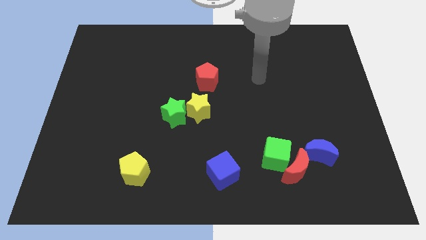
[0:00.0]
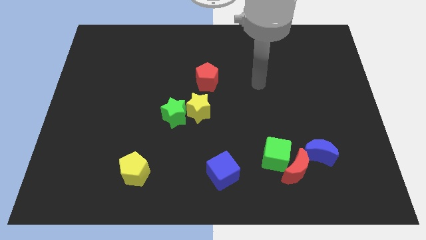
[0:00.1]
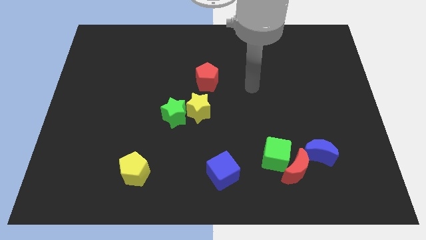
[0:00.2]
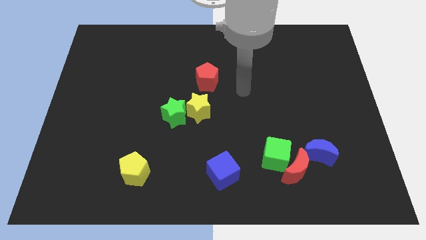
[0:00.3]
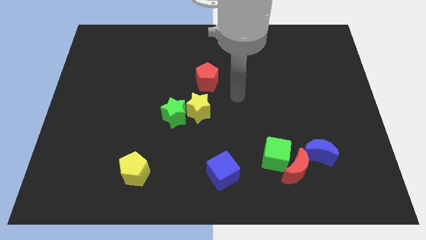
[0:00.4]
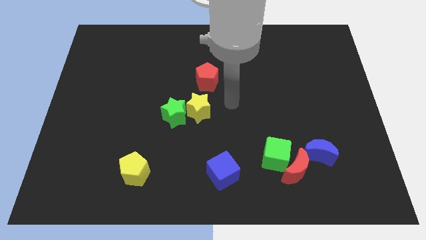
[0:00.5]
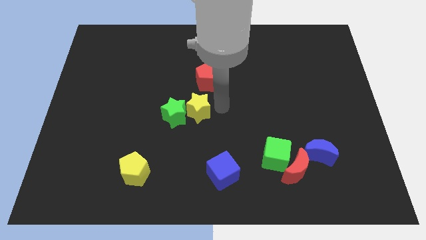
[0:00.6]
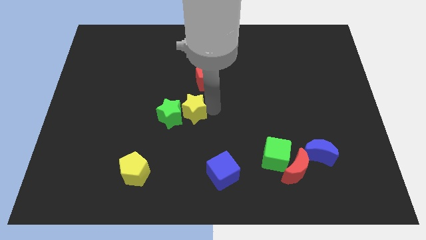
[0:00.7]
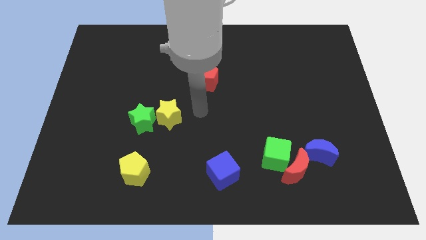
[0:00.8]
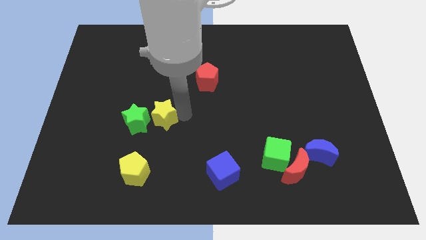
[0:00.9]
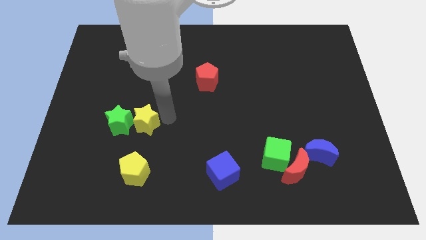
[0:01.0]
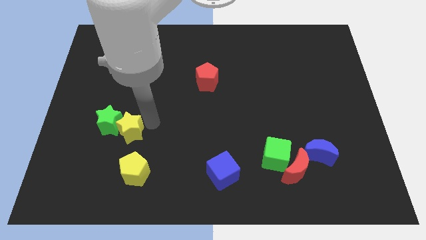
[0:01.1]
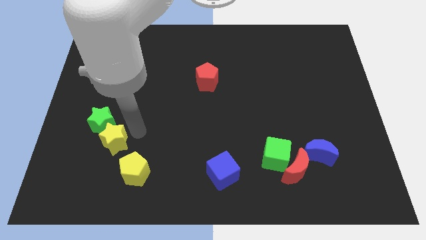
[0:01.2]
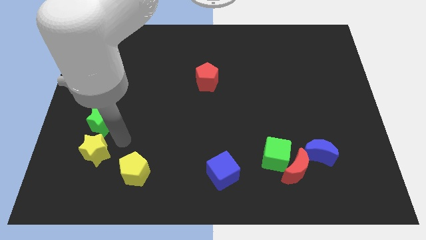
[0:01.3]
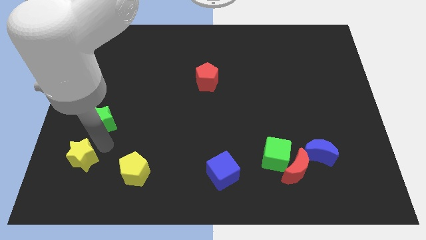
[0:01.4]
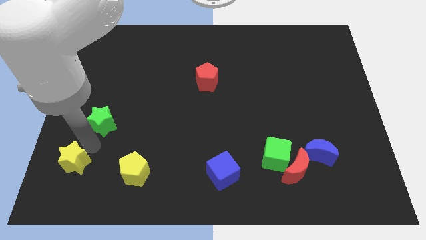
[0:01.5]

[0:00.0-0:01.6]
pull the green star apart from the yellow star

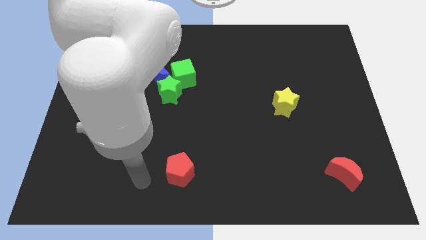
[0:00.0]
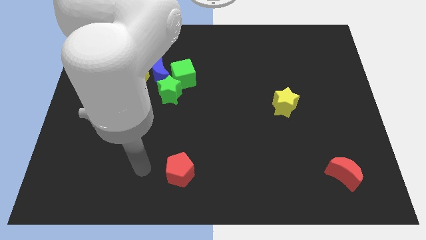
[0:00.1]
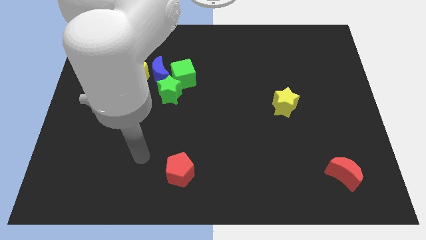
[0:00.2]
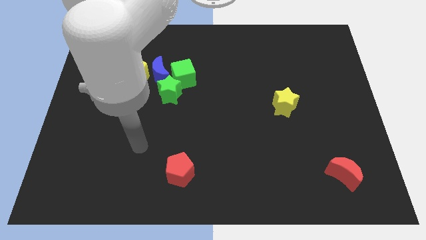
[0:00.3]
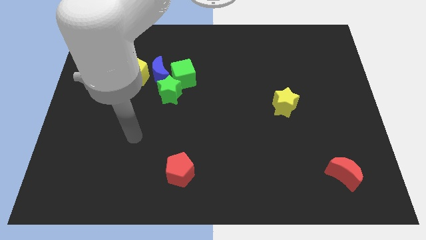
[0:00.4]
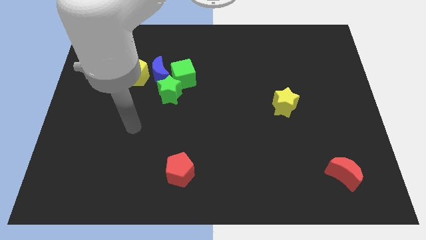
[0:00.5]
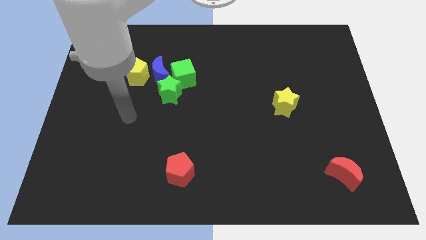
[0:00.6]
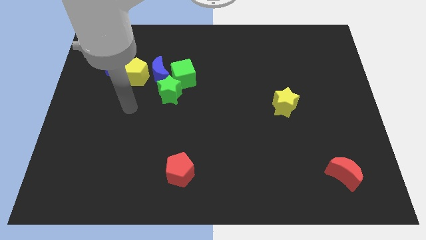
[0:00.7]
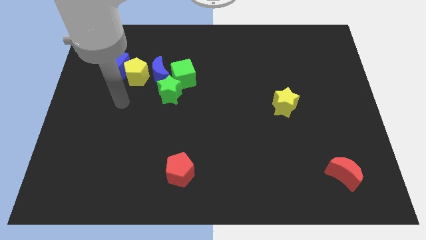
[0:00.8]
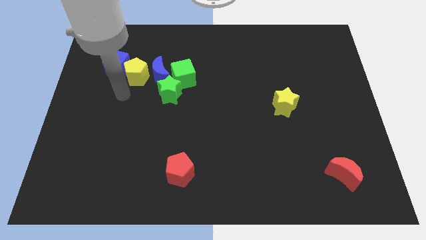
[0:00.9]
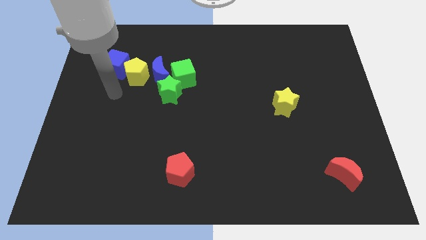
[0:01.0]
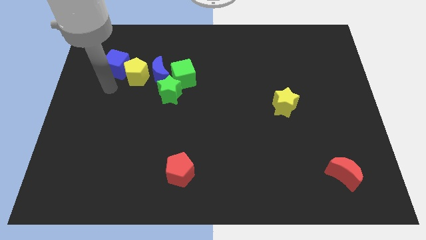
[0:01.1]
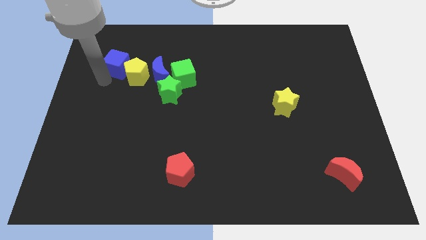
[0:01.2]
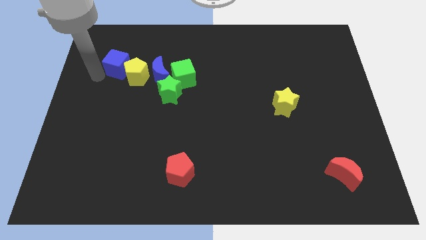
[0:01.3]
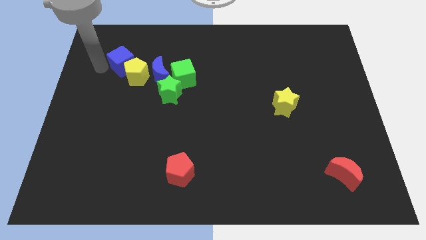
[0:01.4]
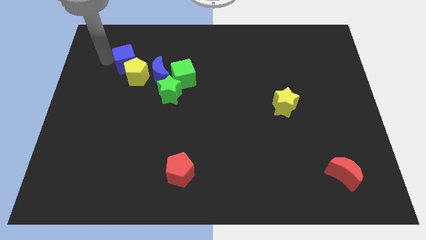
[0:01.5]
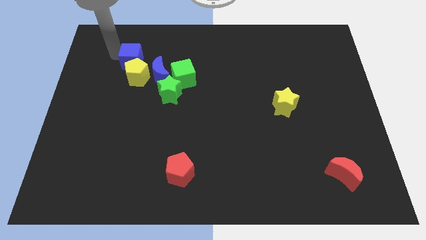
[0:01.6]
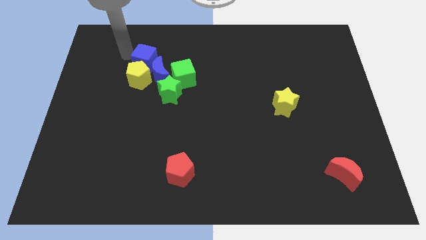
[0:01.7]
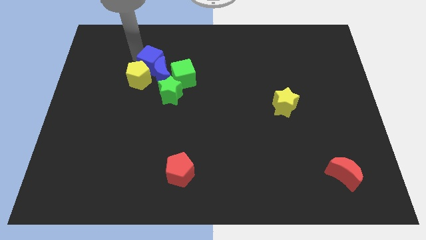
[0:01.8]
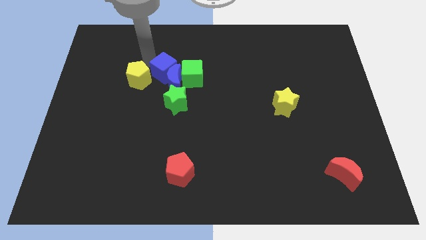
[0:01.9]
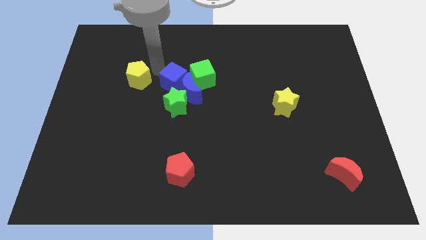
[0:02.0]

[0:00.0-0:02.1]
separate the yellow pentagon from the blue moon and blue cube

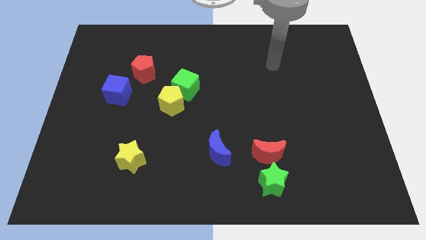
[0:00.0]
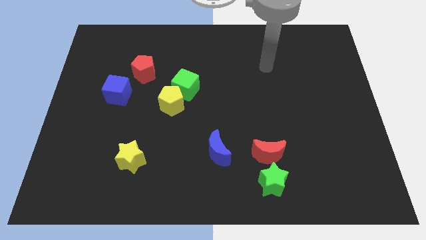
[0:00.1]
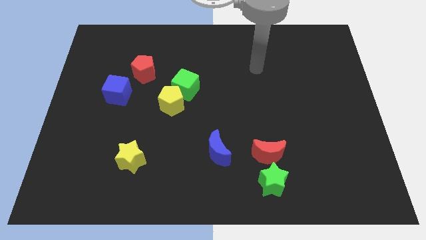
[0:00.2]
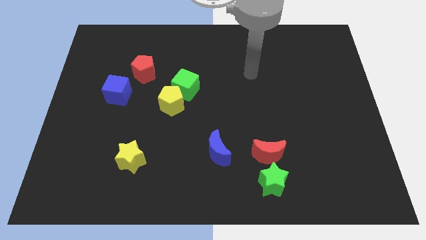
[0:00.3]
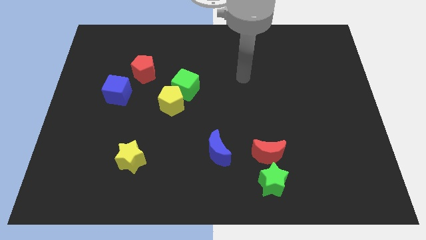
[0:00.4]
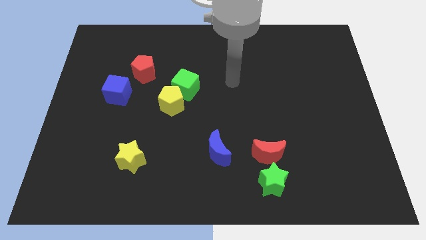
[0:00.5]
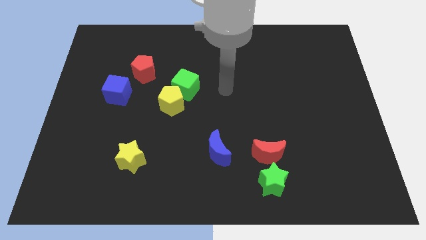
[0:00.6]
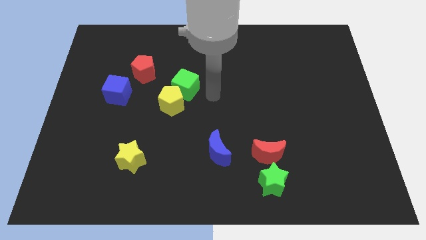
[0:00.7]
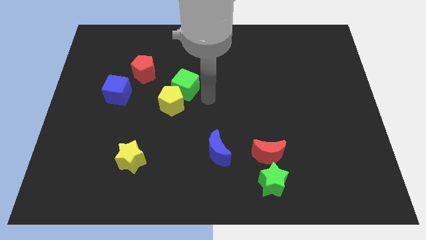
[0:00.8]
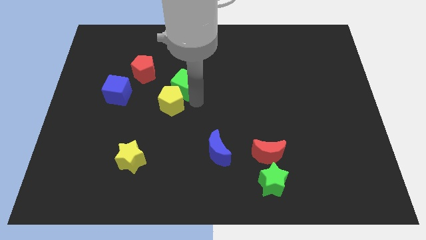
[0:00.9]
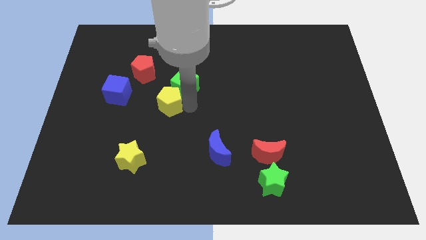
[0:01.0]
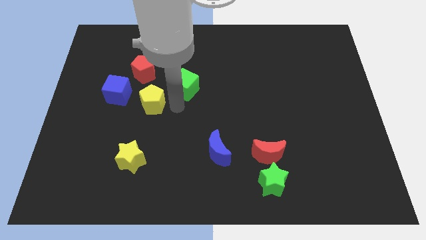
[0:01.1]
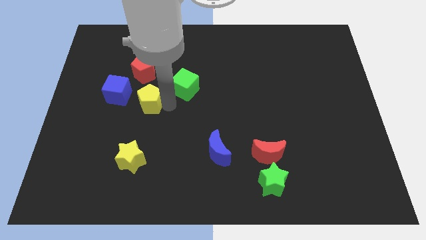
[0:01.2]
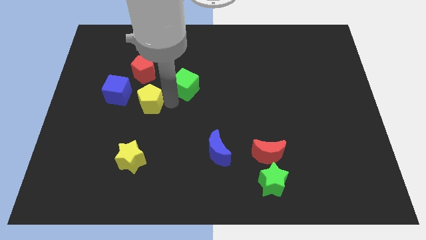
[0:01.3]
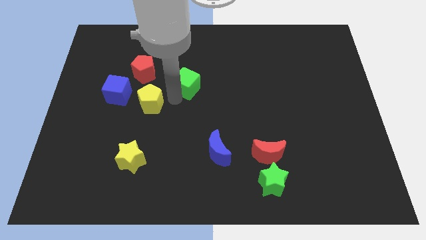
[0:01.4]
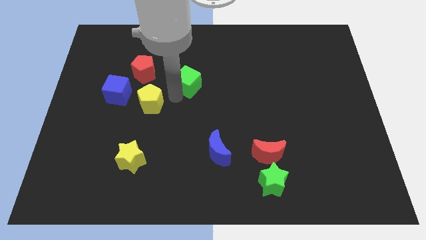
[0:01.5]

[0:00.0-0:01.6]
move the green cube away from the yellow pentagon

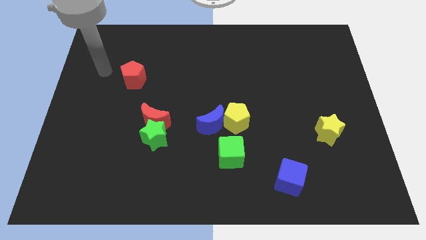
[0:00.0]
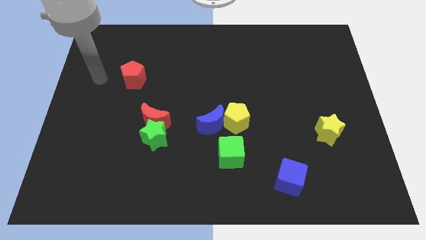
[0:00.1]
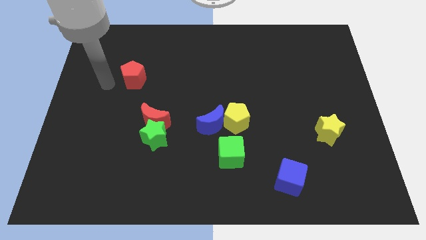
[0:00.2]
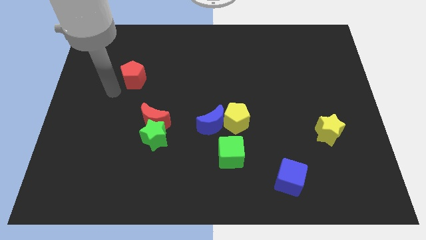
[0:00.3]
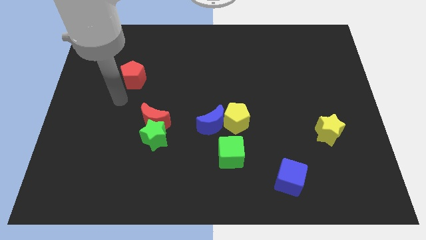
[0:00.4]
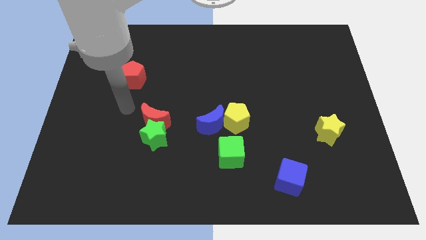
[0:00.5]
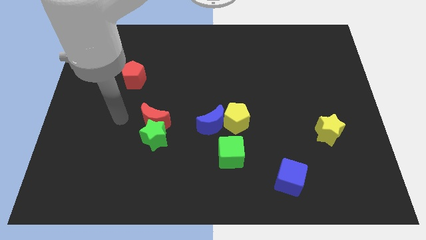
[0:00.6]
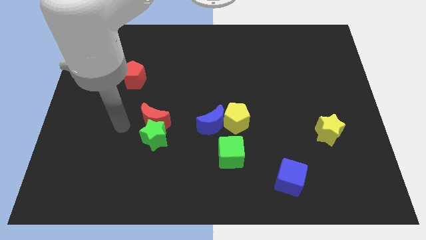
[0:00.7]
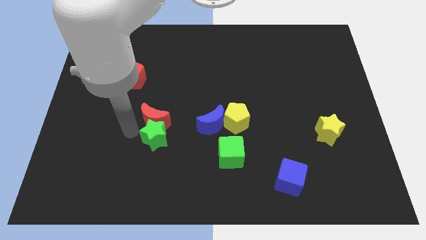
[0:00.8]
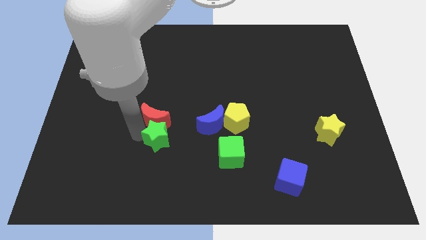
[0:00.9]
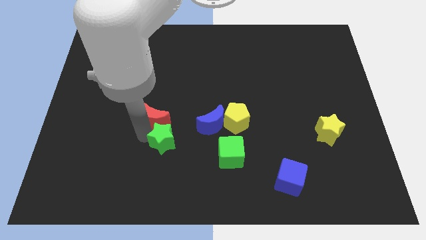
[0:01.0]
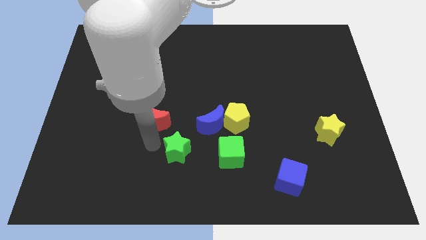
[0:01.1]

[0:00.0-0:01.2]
move the red moon away from the green star

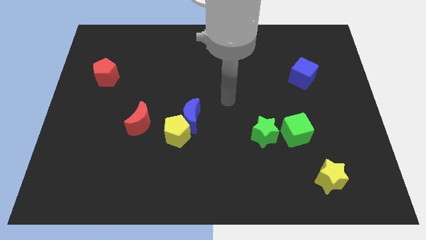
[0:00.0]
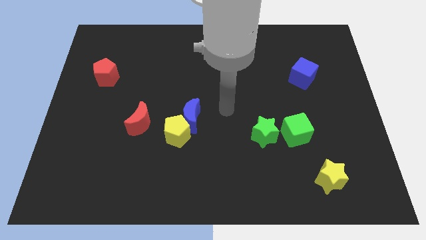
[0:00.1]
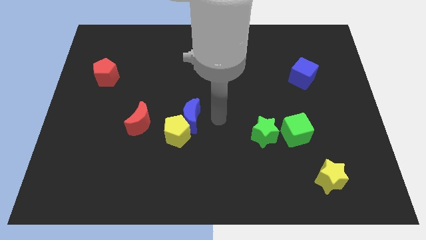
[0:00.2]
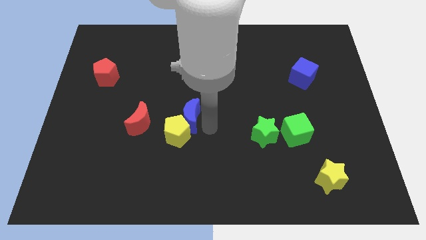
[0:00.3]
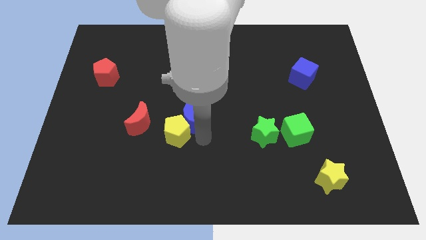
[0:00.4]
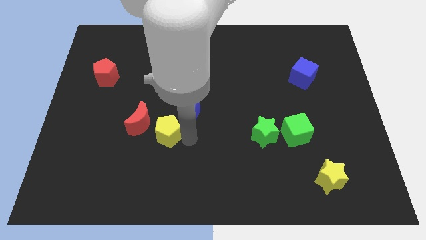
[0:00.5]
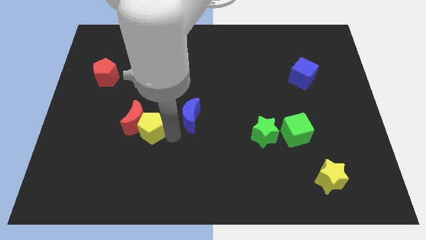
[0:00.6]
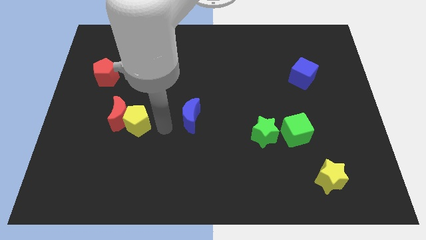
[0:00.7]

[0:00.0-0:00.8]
pull the blue moon apart from the yellow pentagon

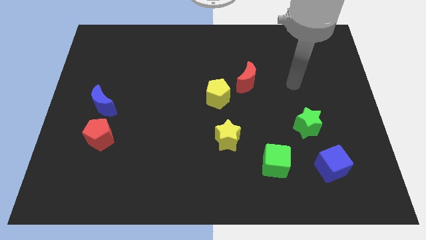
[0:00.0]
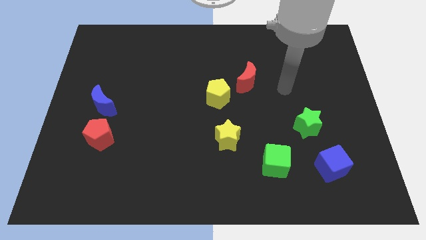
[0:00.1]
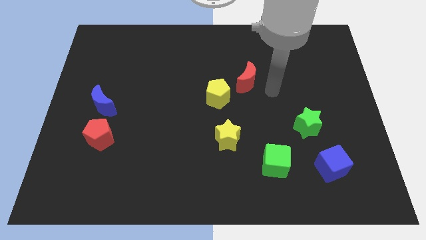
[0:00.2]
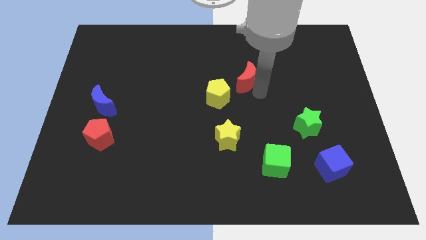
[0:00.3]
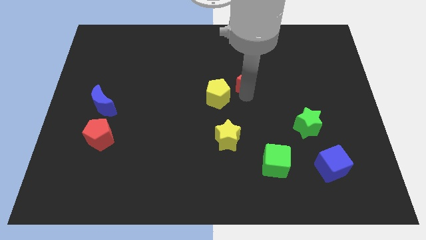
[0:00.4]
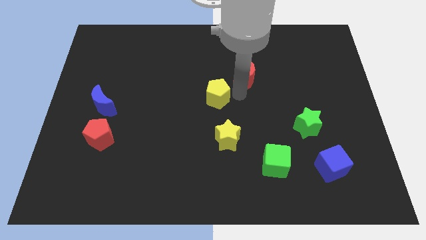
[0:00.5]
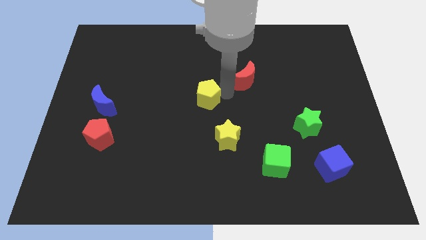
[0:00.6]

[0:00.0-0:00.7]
move the red moon away from the yellow pentagon

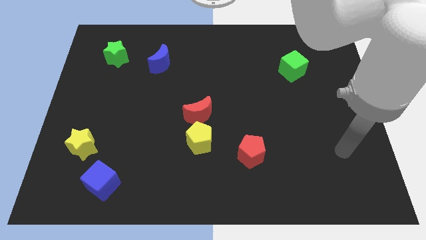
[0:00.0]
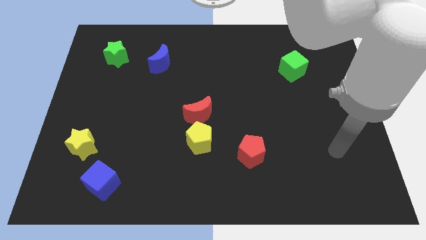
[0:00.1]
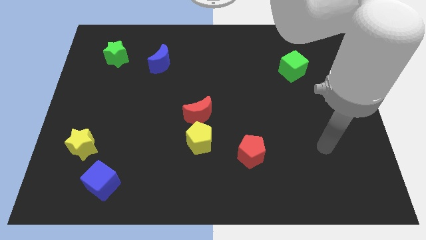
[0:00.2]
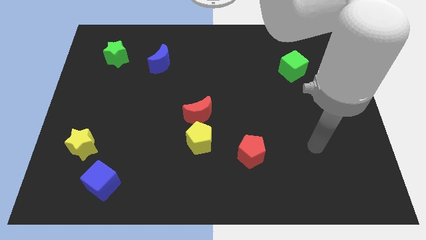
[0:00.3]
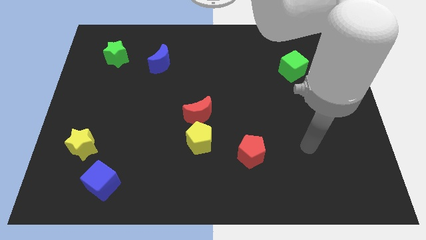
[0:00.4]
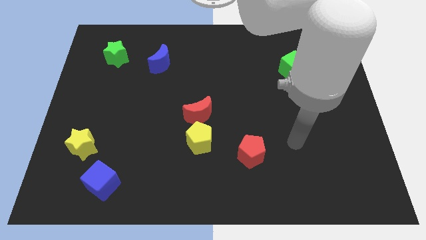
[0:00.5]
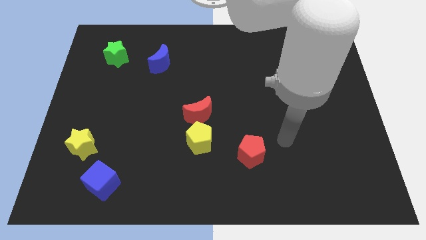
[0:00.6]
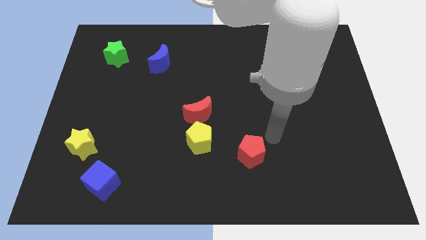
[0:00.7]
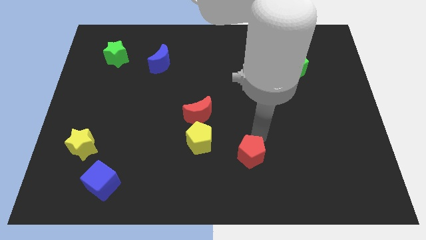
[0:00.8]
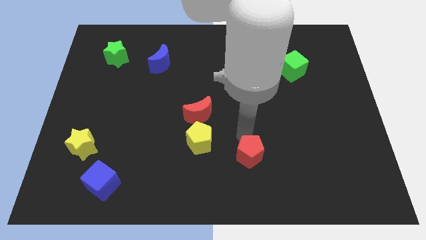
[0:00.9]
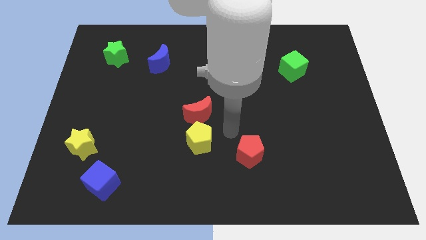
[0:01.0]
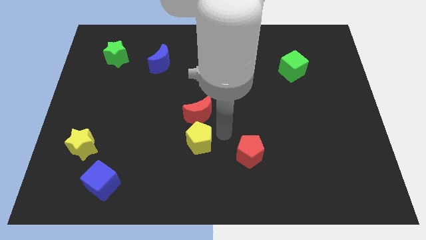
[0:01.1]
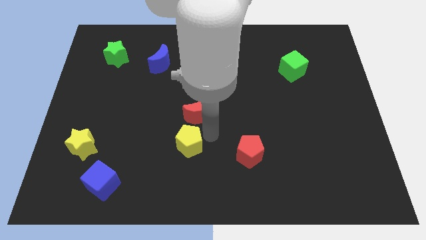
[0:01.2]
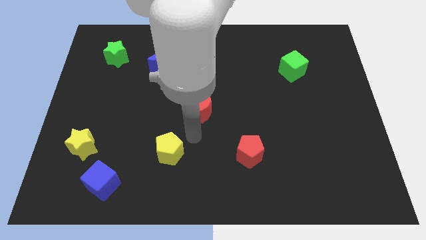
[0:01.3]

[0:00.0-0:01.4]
separate the red moon from the yellow pentagon
